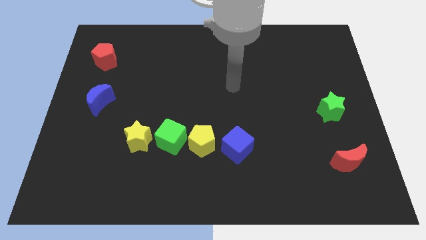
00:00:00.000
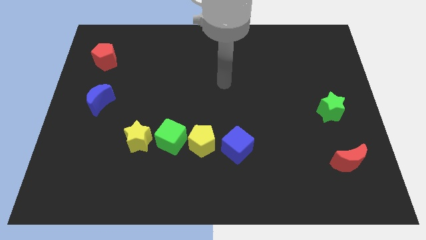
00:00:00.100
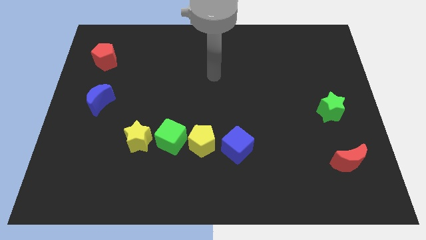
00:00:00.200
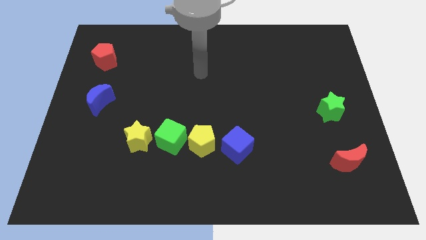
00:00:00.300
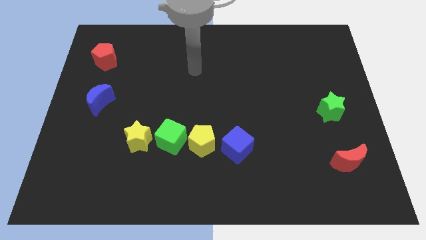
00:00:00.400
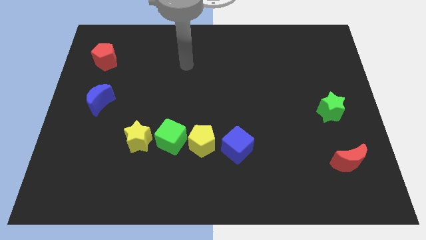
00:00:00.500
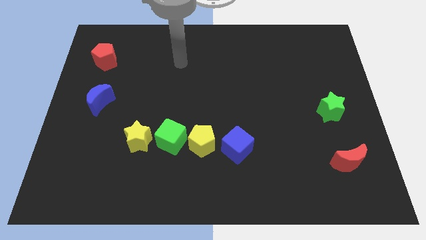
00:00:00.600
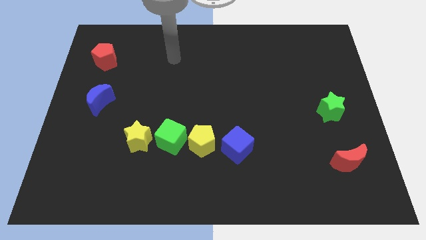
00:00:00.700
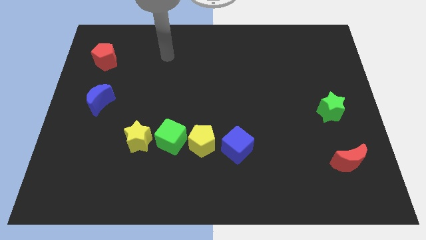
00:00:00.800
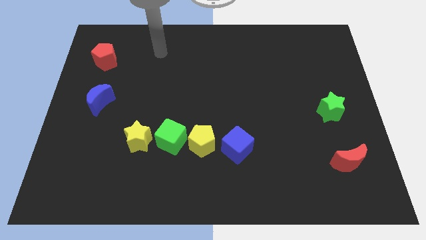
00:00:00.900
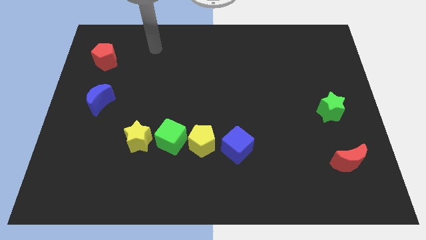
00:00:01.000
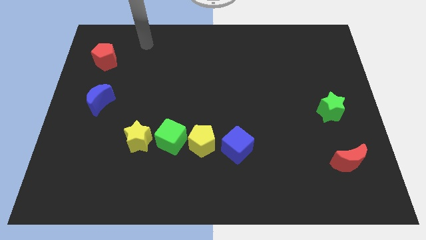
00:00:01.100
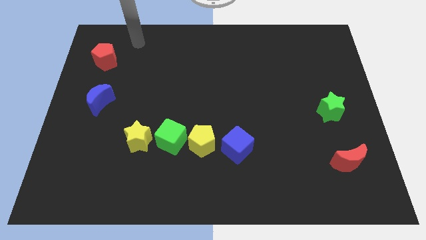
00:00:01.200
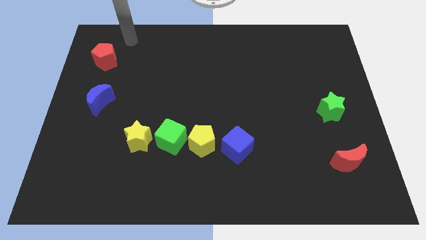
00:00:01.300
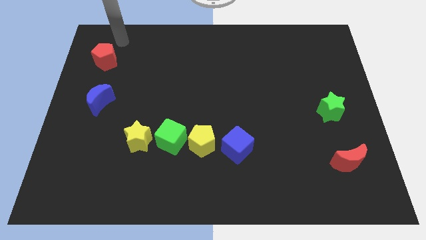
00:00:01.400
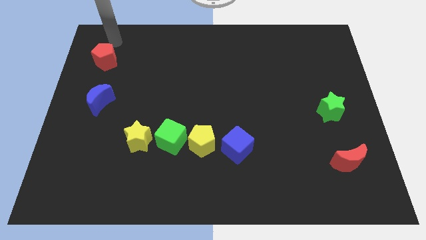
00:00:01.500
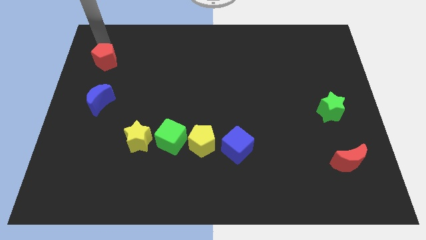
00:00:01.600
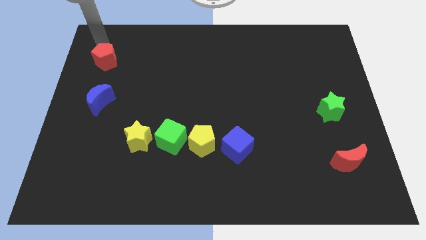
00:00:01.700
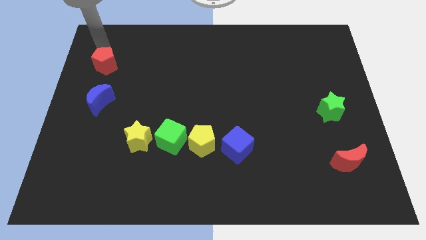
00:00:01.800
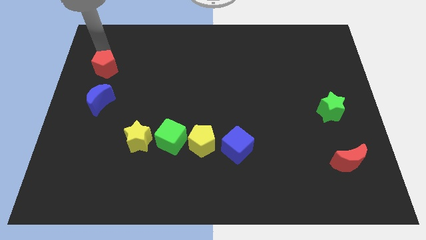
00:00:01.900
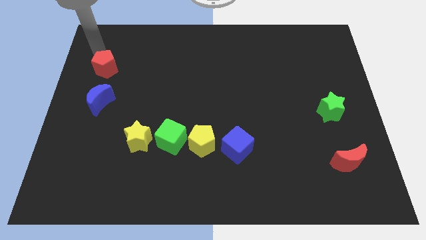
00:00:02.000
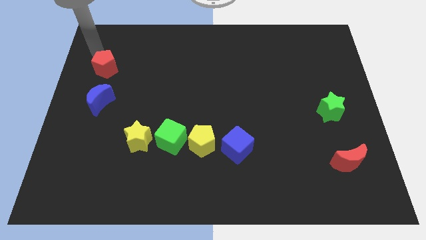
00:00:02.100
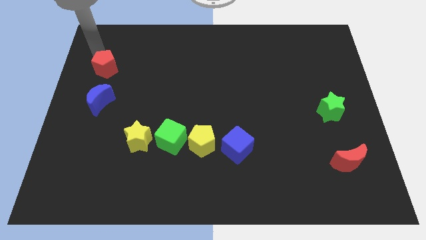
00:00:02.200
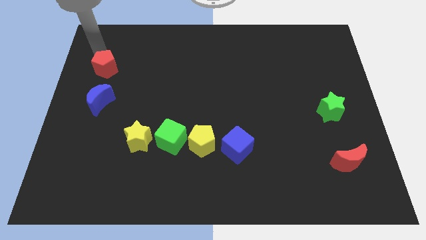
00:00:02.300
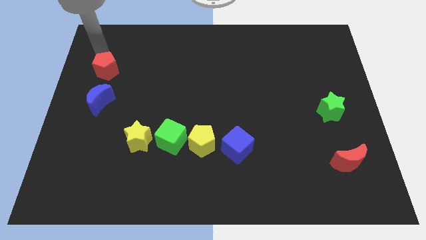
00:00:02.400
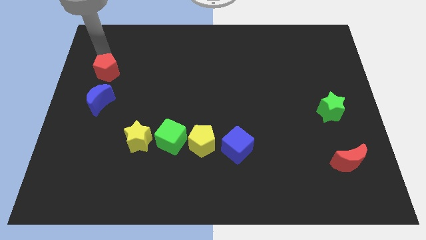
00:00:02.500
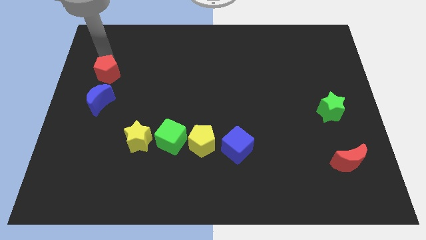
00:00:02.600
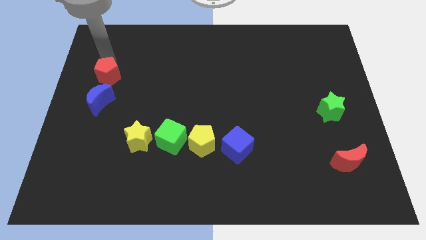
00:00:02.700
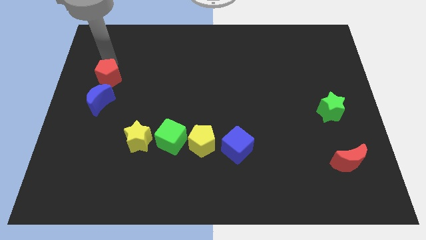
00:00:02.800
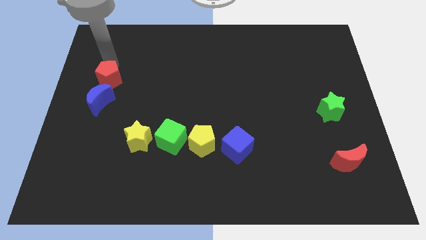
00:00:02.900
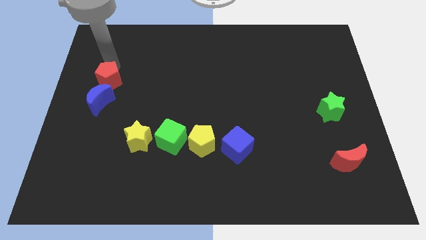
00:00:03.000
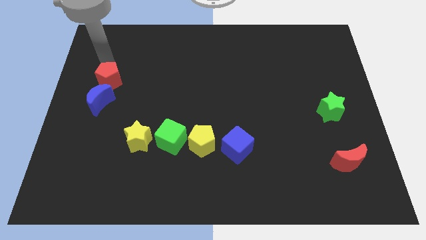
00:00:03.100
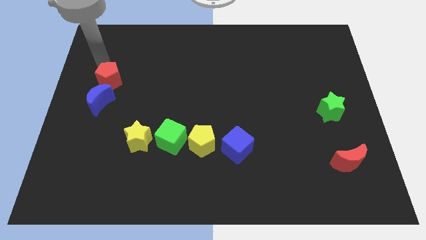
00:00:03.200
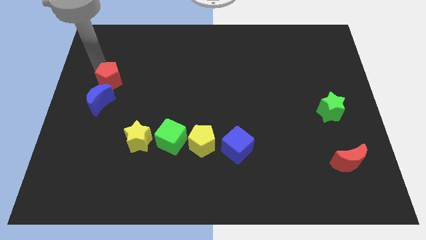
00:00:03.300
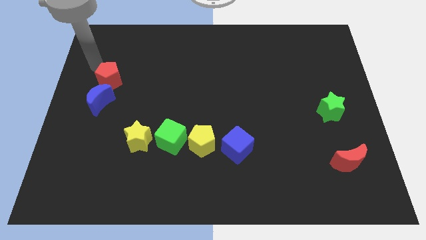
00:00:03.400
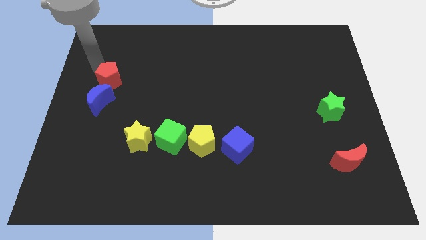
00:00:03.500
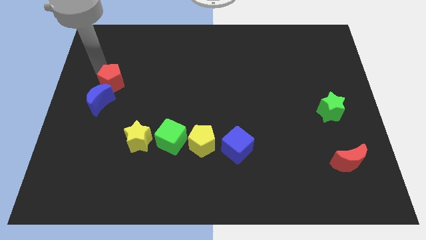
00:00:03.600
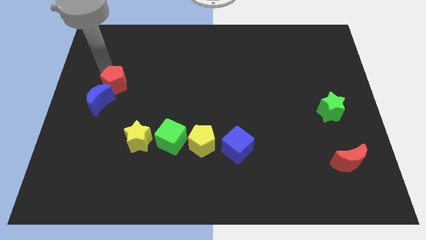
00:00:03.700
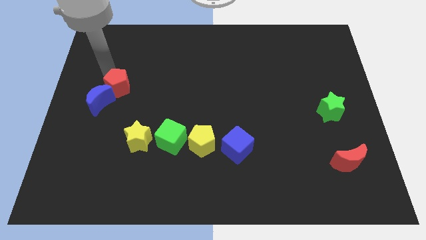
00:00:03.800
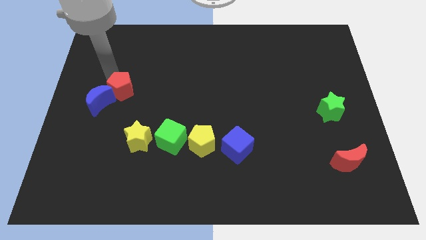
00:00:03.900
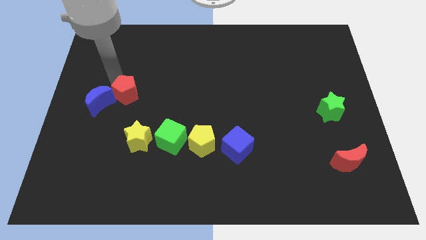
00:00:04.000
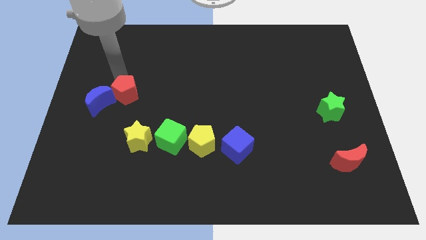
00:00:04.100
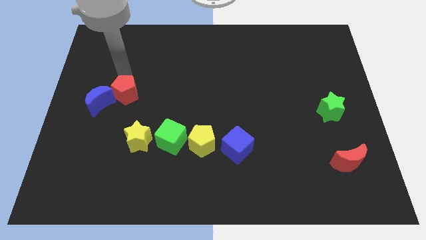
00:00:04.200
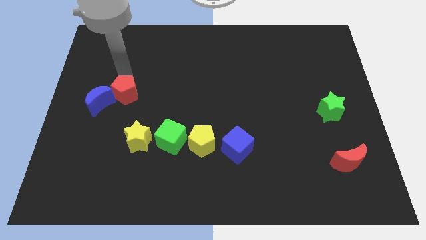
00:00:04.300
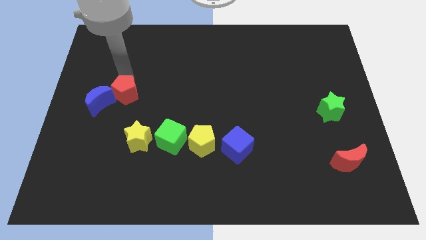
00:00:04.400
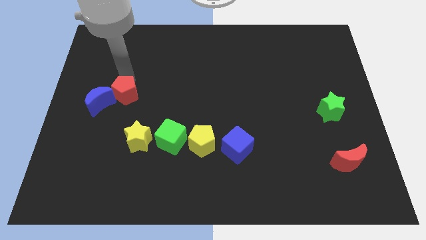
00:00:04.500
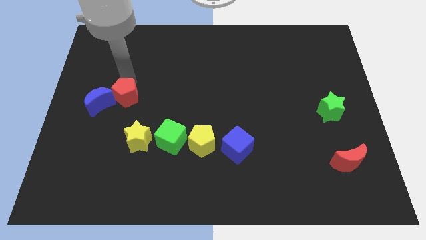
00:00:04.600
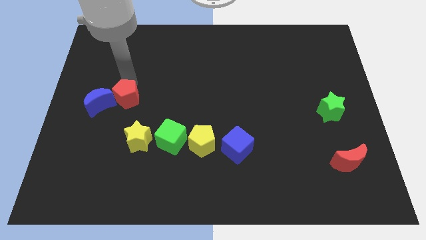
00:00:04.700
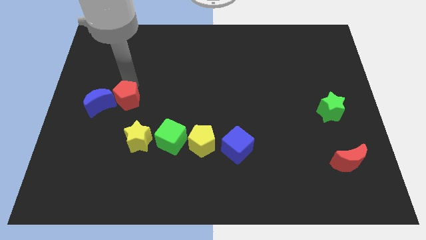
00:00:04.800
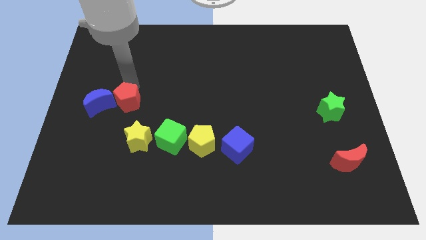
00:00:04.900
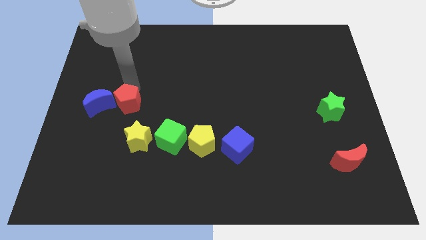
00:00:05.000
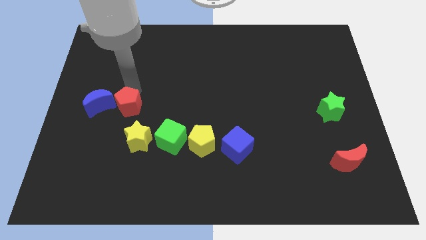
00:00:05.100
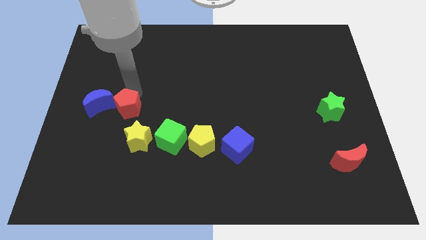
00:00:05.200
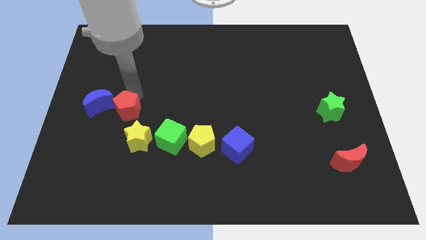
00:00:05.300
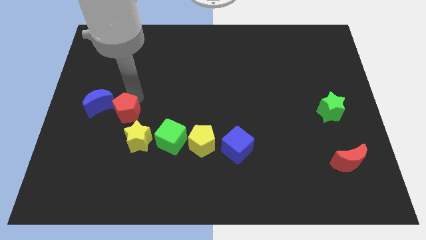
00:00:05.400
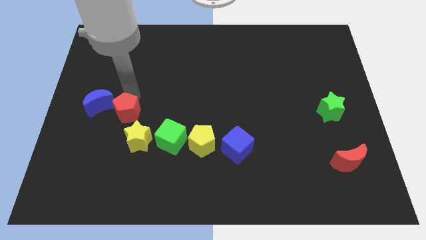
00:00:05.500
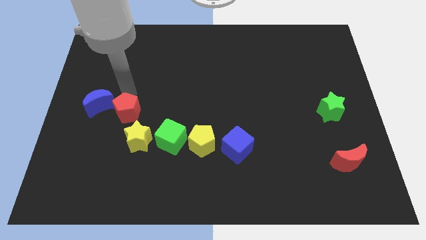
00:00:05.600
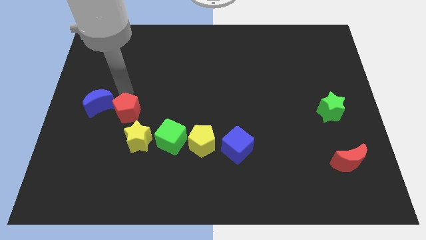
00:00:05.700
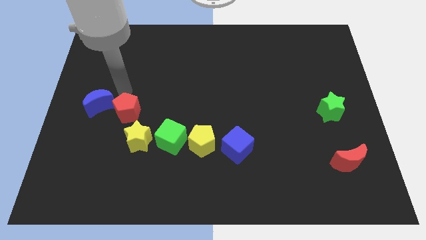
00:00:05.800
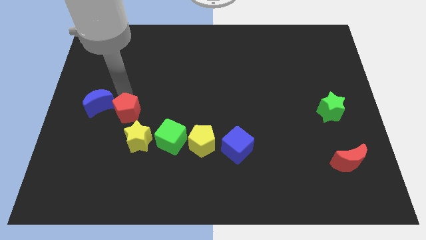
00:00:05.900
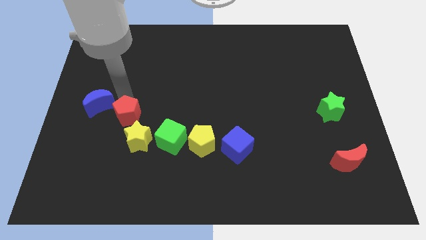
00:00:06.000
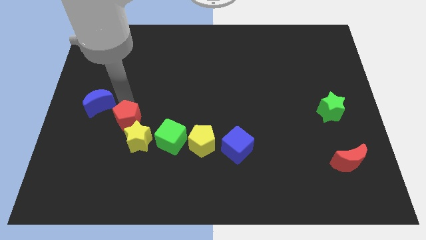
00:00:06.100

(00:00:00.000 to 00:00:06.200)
slide the red pentagon to the yellow star

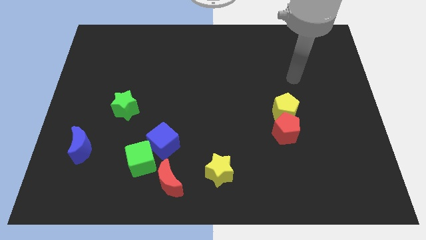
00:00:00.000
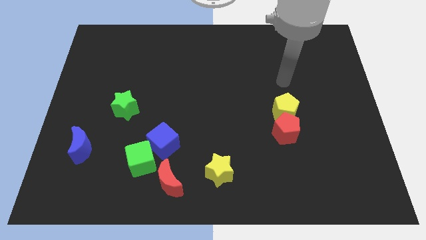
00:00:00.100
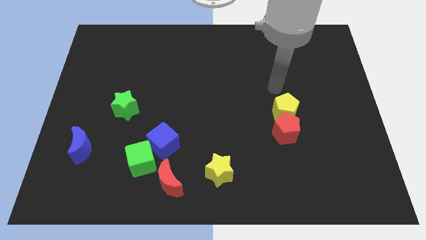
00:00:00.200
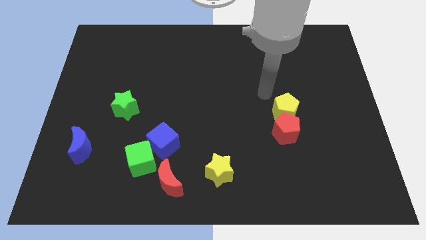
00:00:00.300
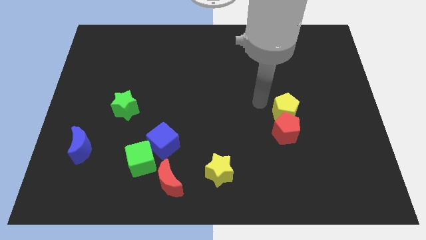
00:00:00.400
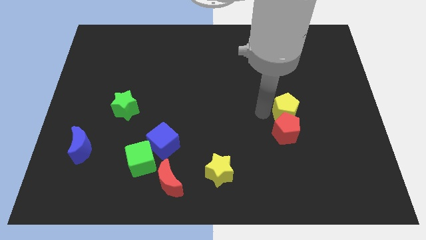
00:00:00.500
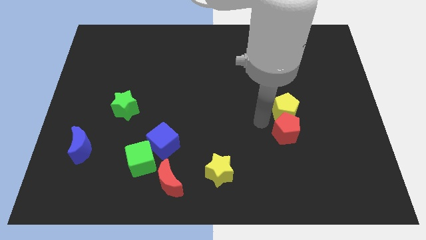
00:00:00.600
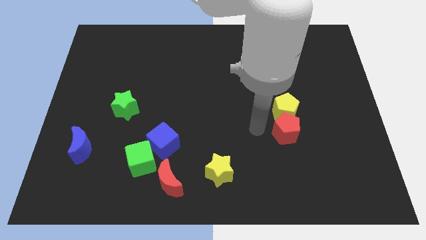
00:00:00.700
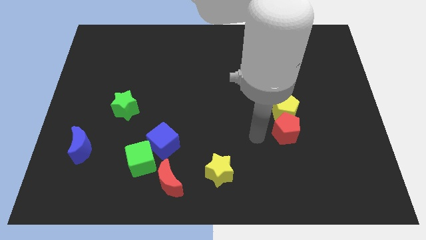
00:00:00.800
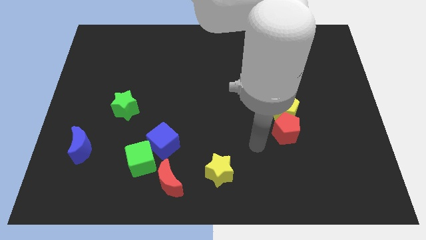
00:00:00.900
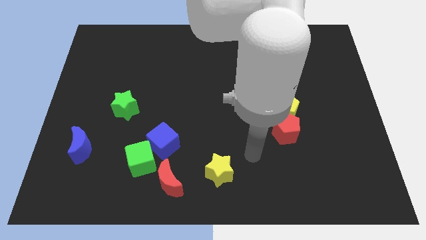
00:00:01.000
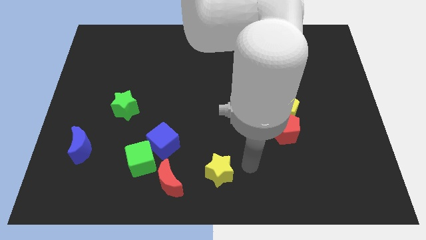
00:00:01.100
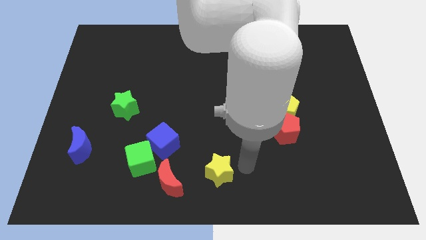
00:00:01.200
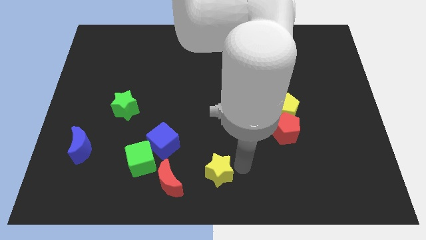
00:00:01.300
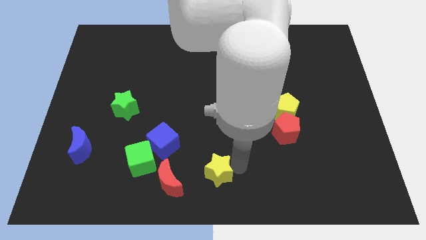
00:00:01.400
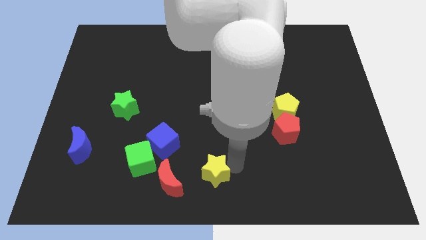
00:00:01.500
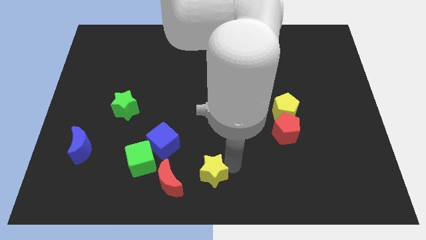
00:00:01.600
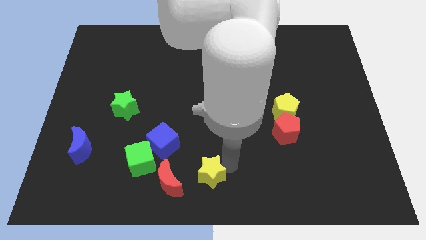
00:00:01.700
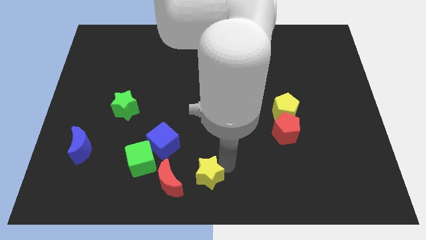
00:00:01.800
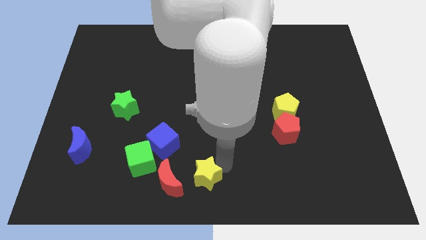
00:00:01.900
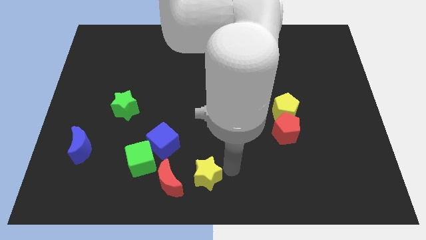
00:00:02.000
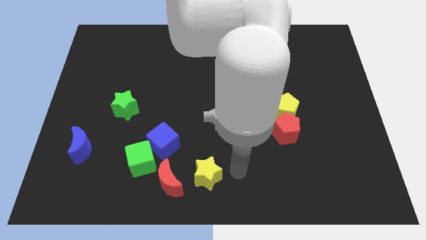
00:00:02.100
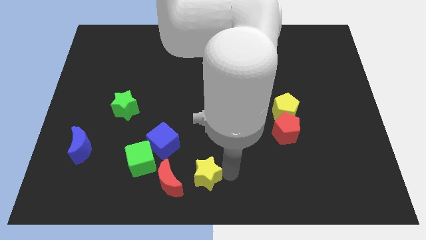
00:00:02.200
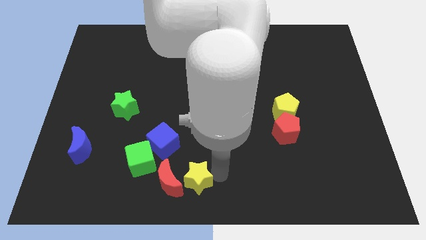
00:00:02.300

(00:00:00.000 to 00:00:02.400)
slide the yellow star close to the red moon
